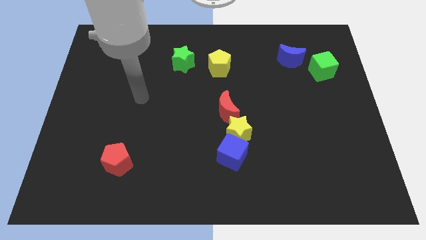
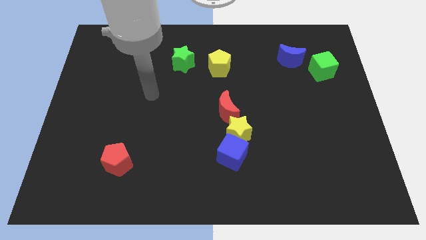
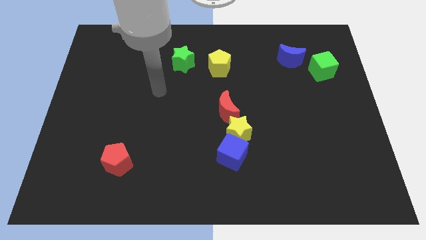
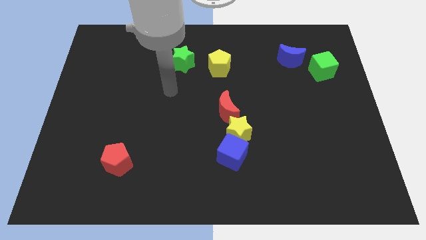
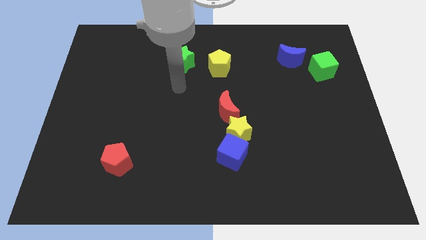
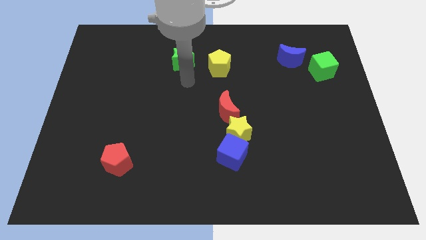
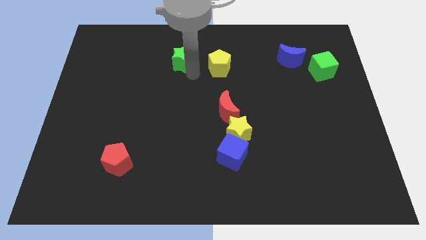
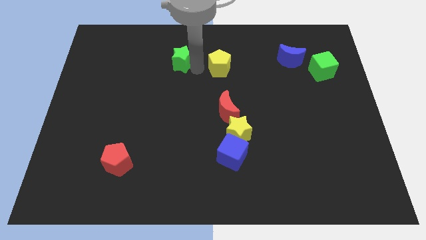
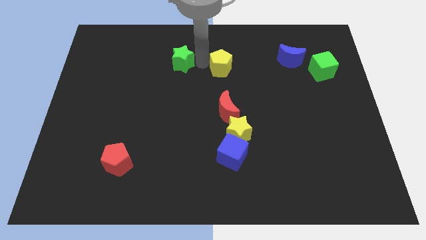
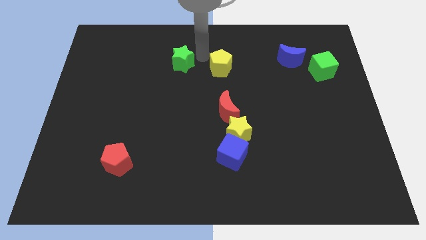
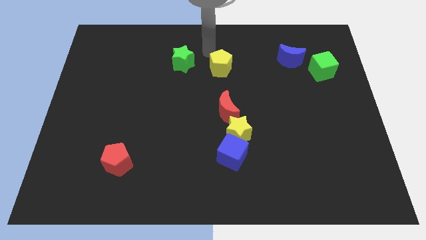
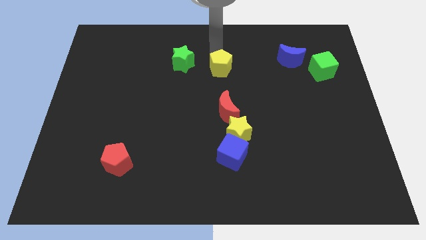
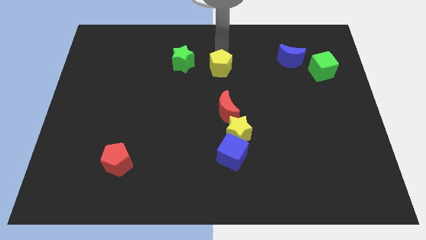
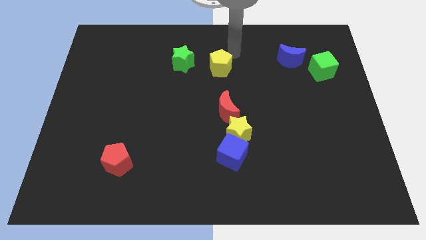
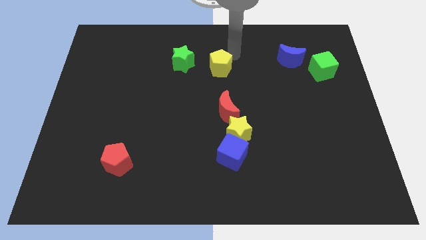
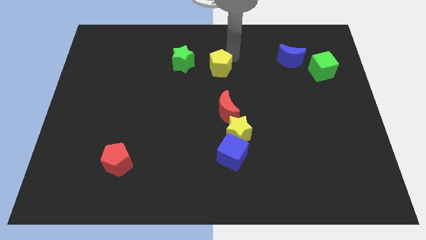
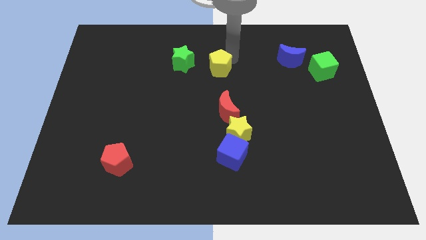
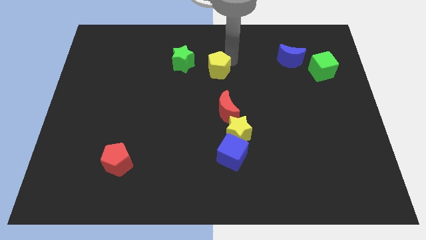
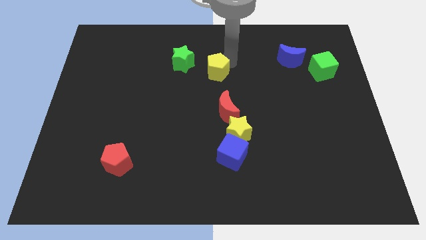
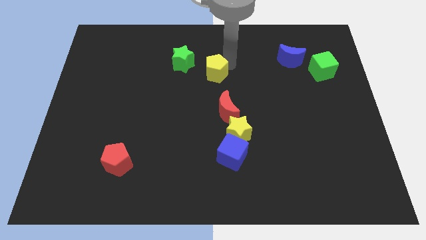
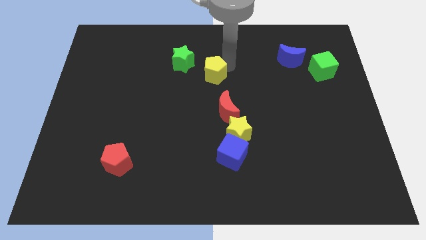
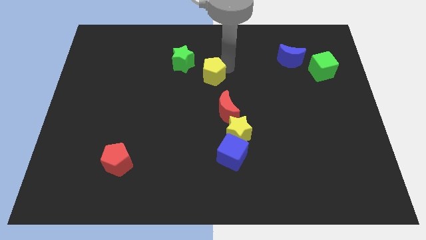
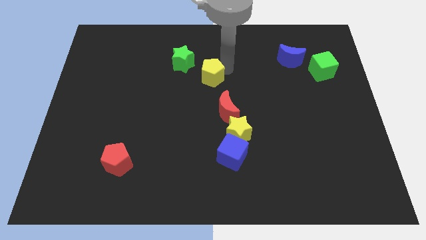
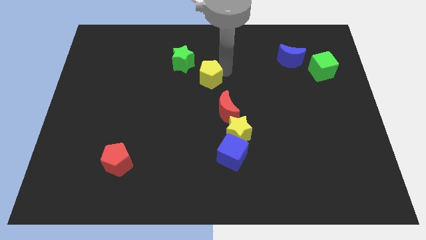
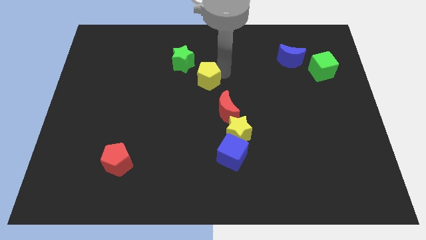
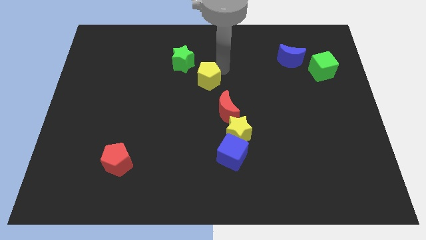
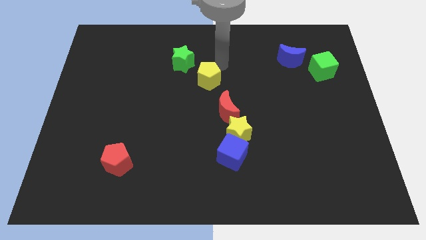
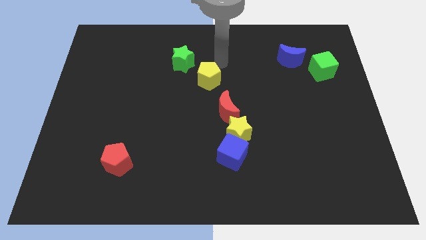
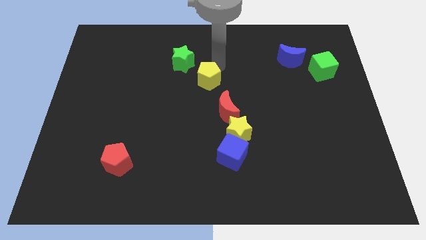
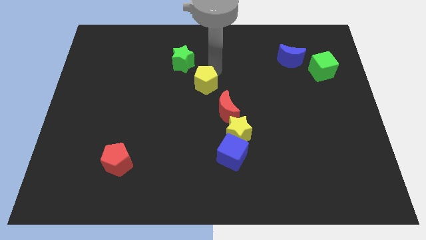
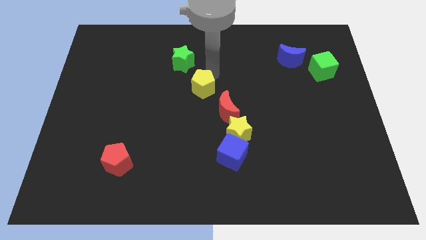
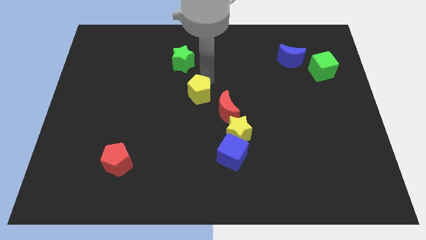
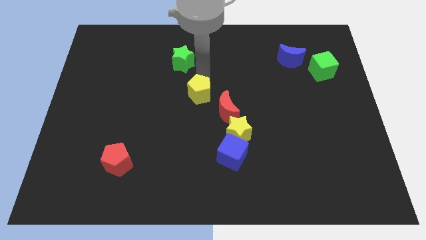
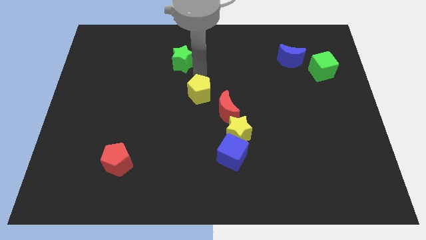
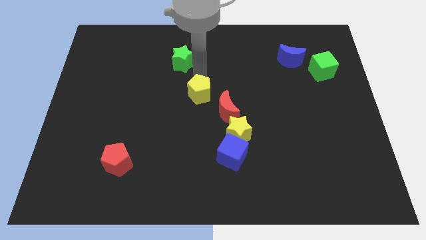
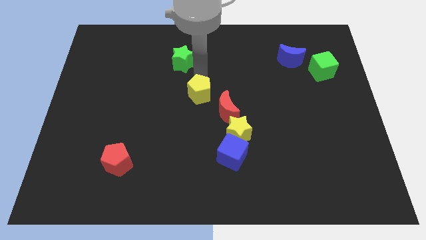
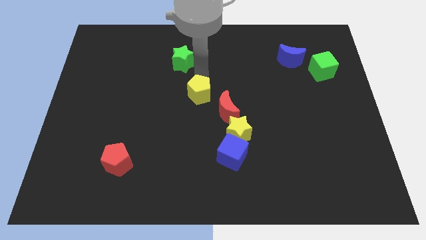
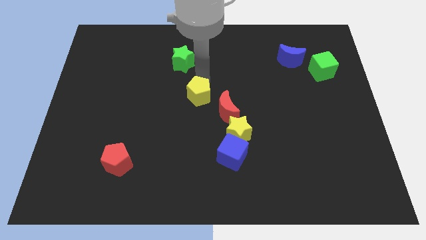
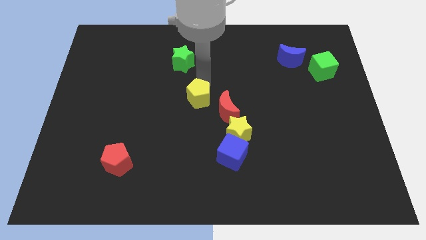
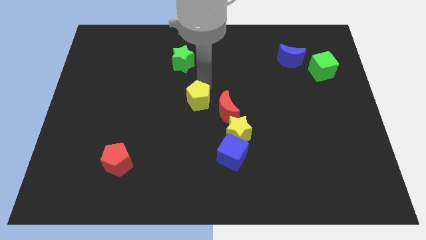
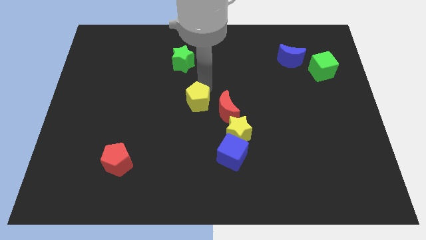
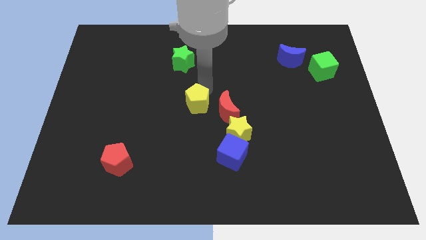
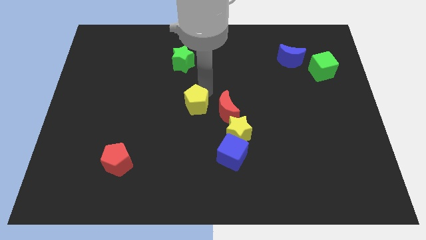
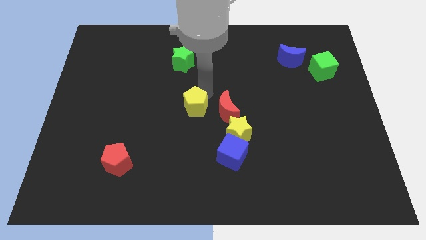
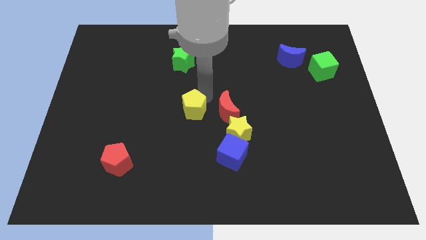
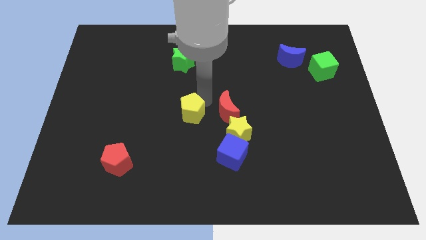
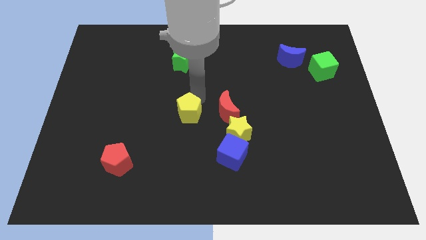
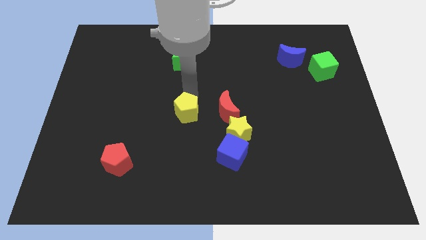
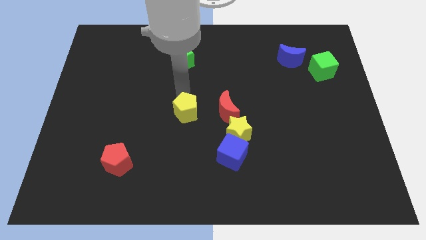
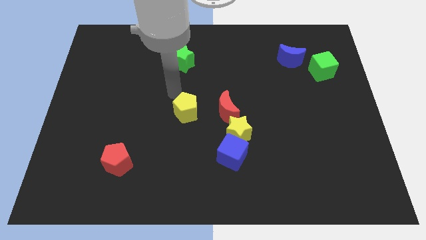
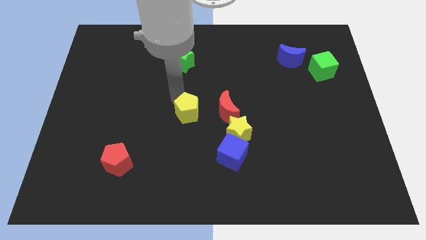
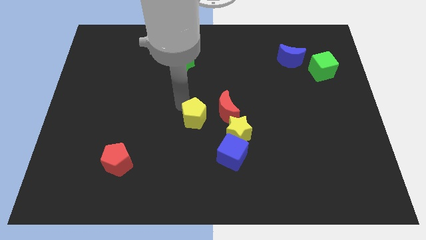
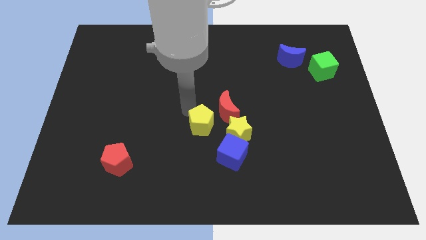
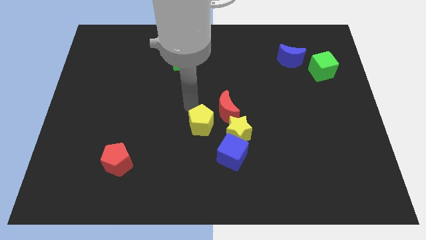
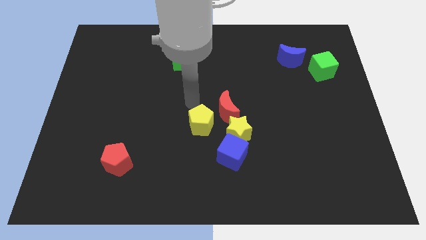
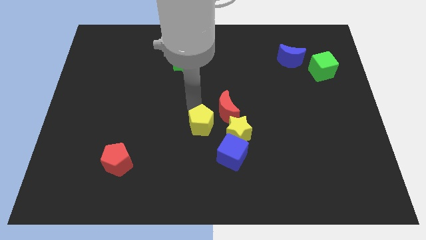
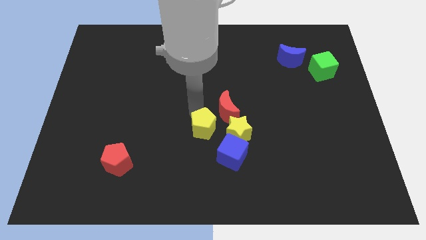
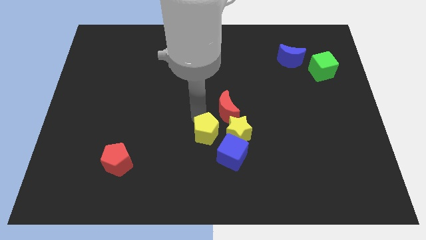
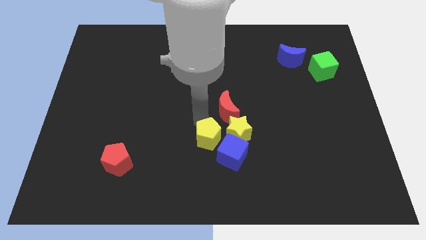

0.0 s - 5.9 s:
push the yellow pentagon downwards

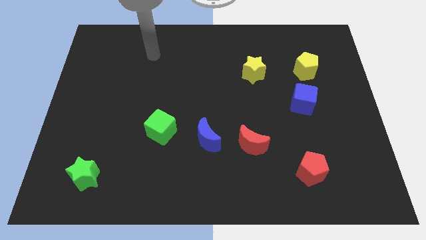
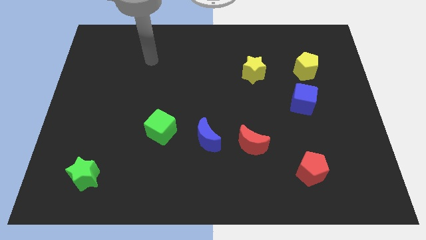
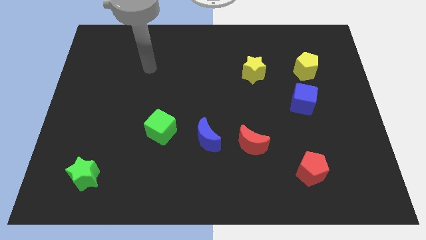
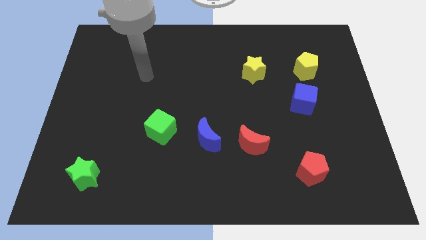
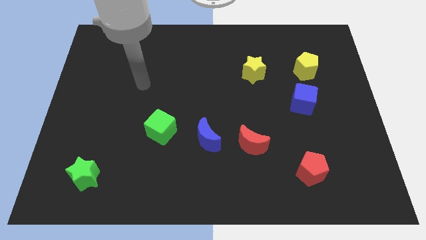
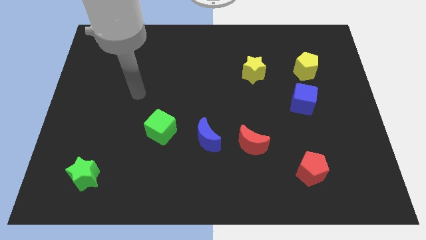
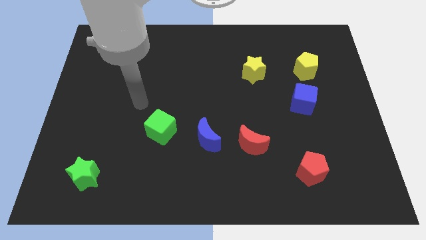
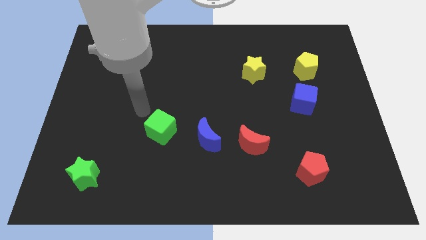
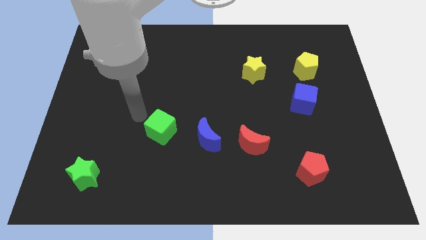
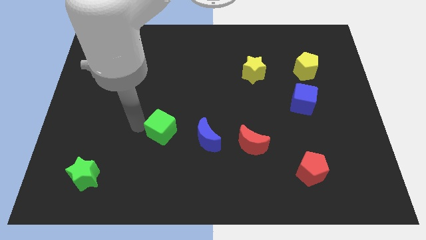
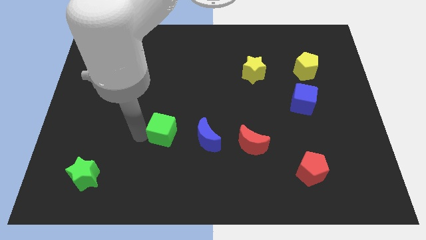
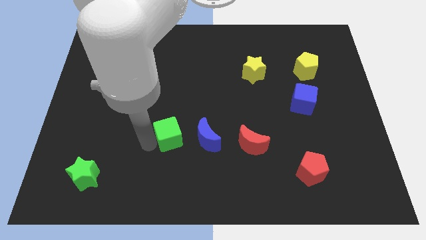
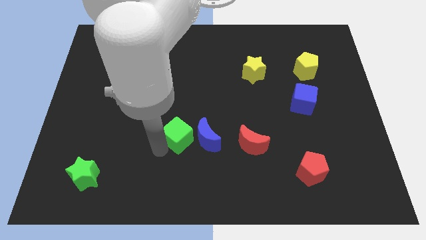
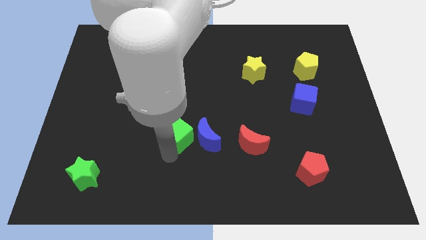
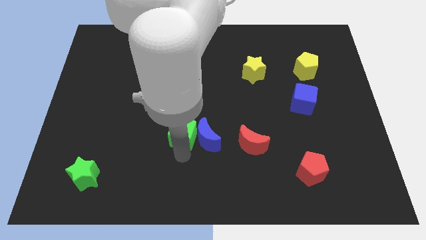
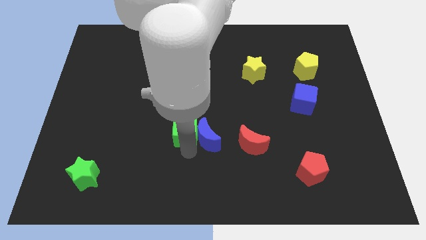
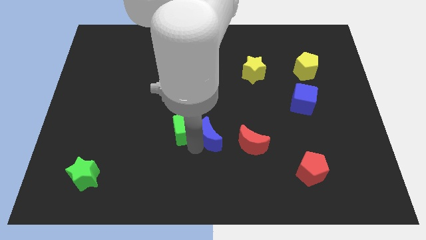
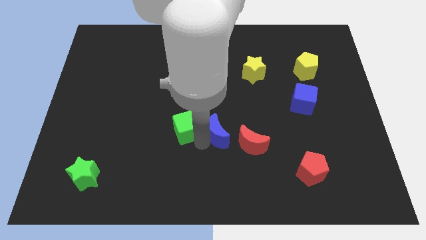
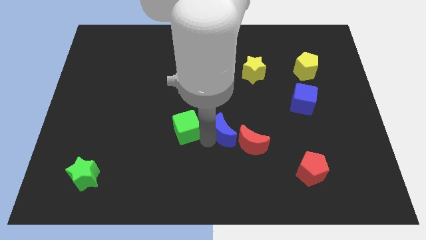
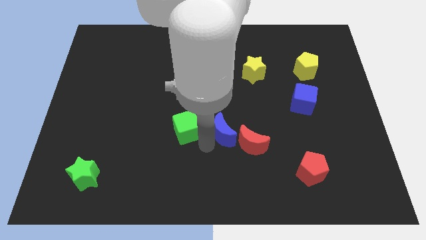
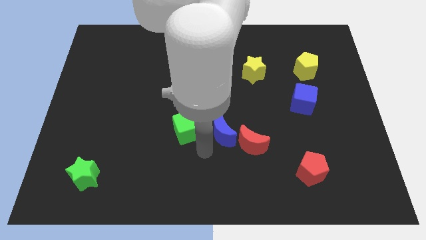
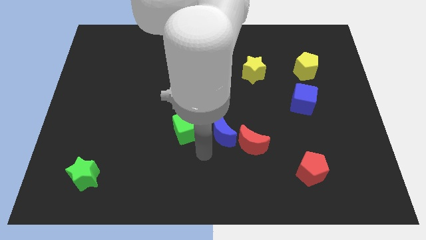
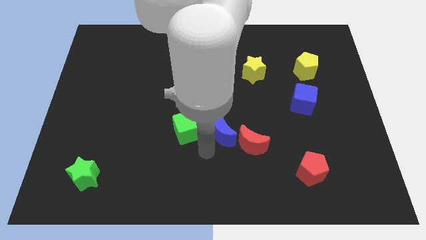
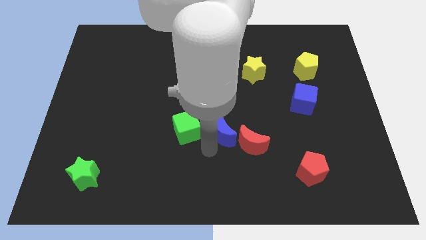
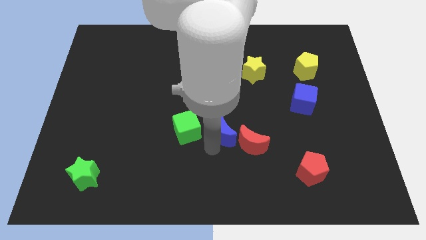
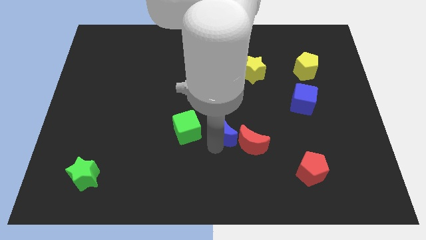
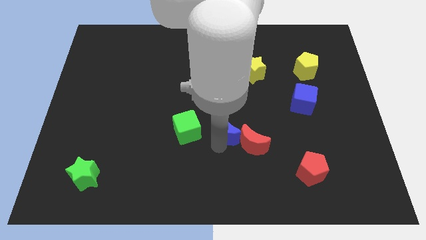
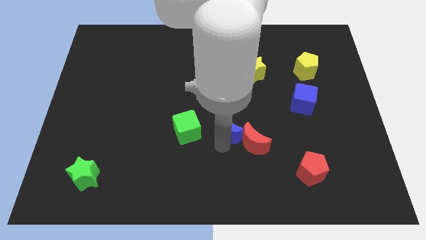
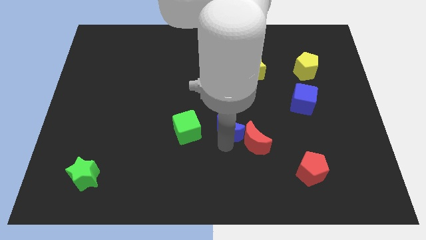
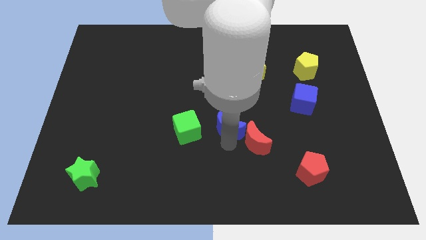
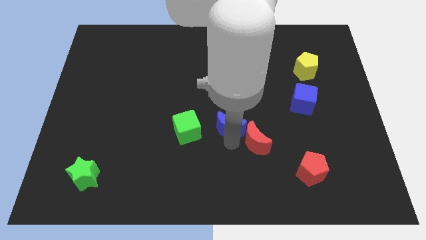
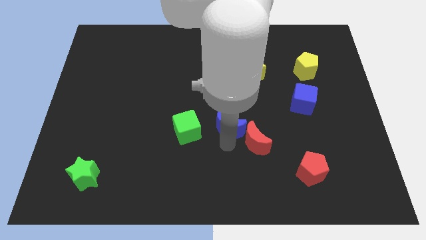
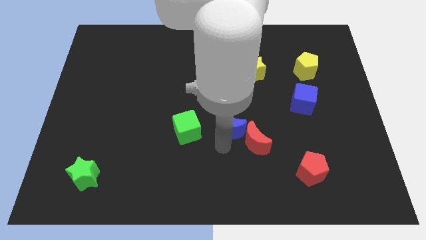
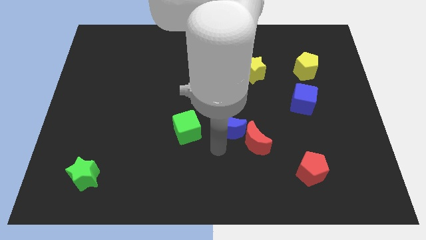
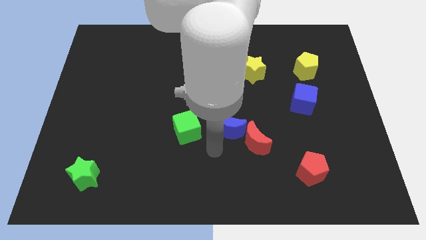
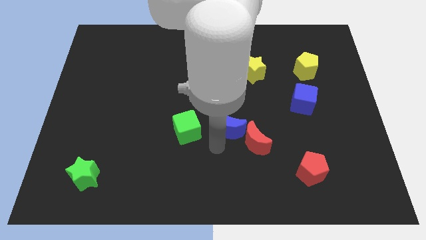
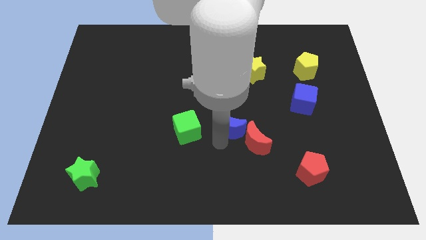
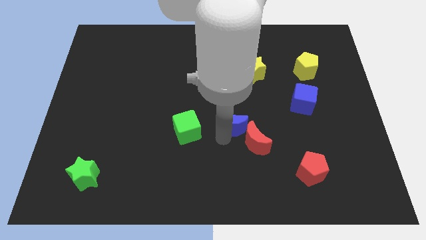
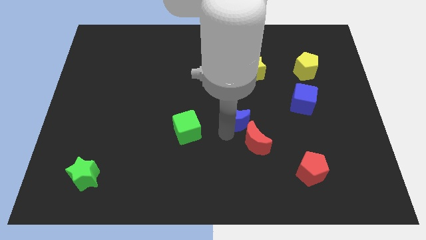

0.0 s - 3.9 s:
slightly move the blue moon upwards and right diagonally
